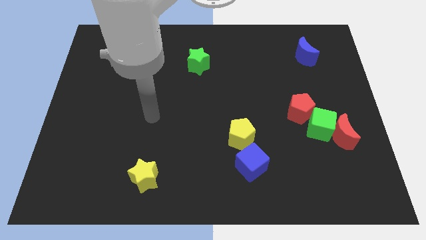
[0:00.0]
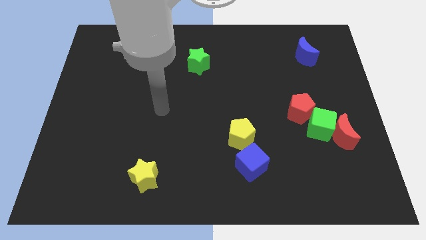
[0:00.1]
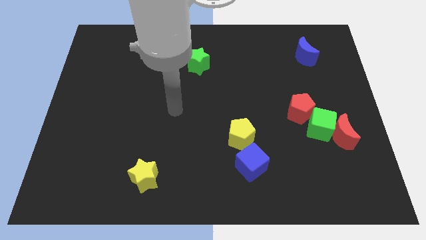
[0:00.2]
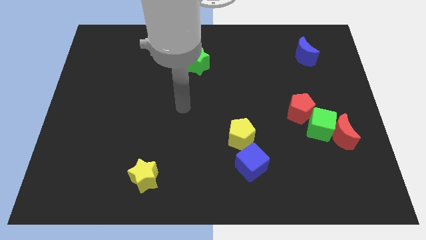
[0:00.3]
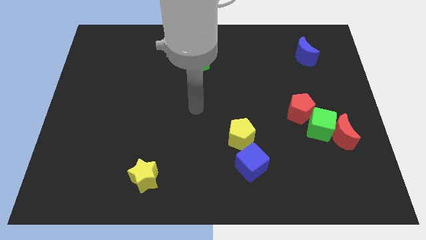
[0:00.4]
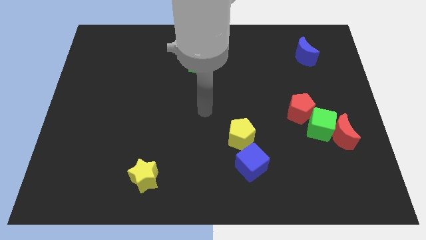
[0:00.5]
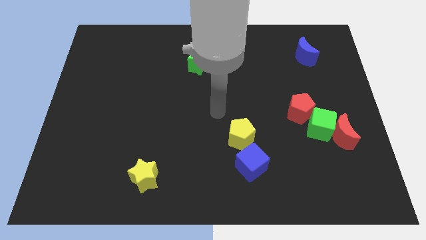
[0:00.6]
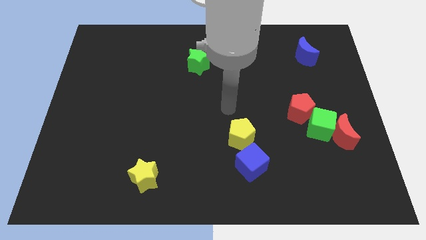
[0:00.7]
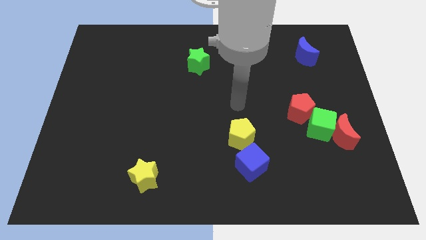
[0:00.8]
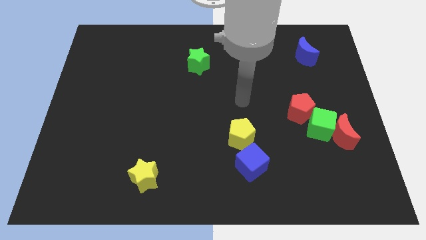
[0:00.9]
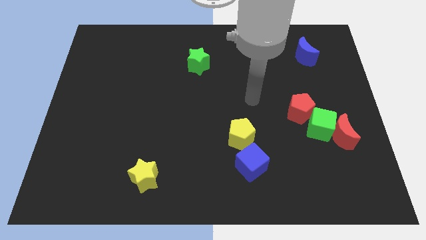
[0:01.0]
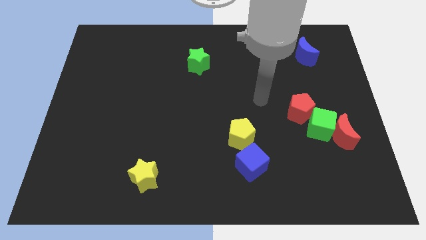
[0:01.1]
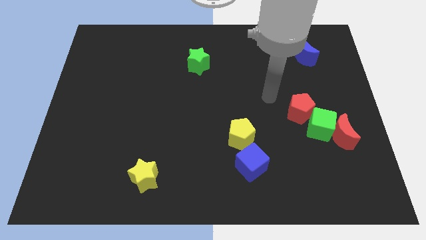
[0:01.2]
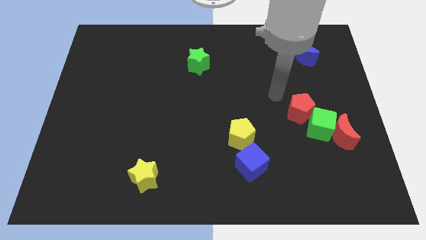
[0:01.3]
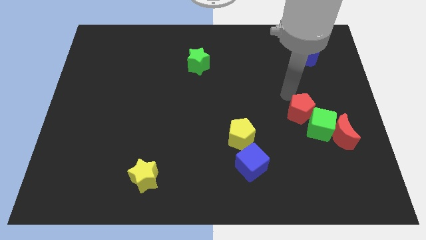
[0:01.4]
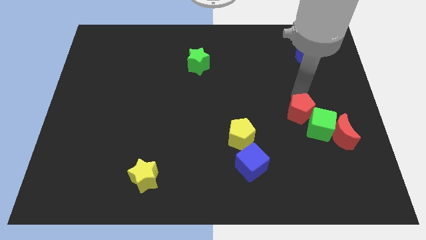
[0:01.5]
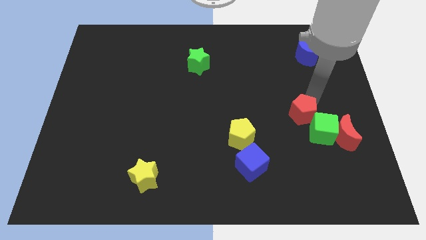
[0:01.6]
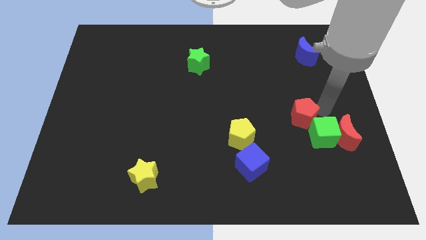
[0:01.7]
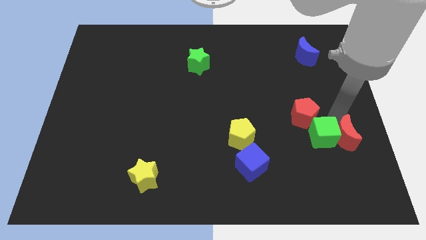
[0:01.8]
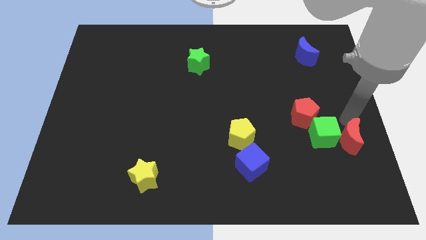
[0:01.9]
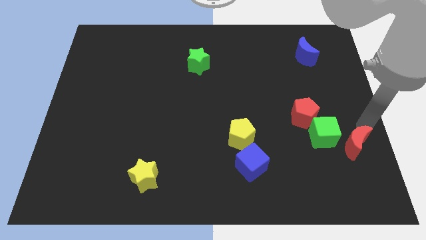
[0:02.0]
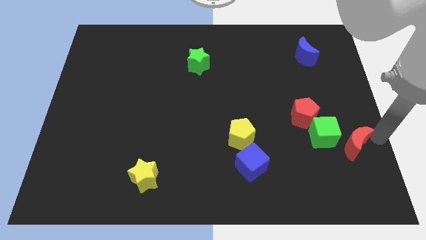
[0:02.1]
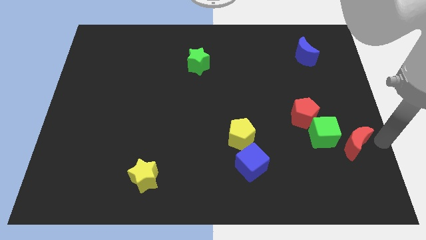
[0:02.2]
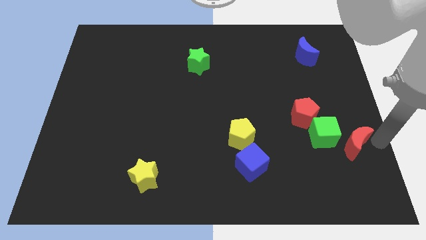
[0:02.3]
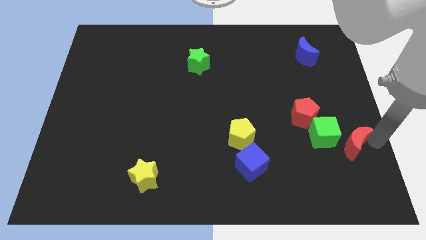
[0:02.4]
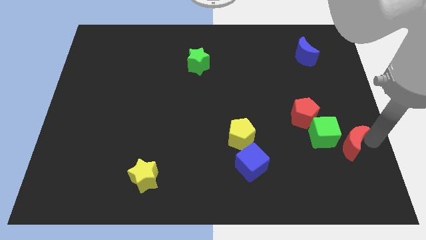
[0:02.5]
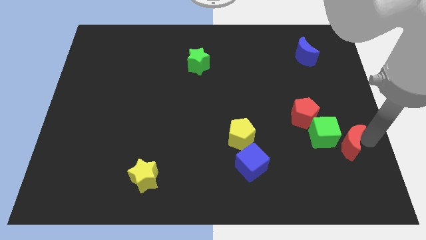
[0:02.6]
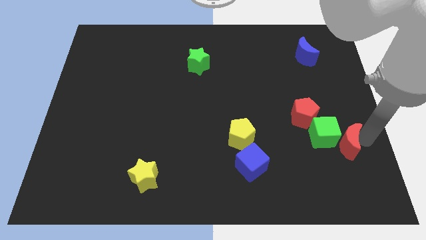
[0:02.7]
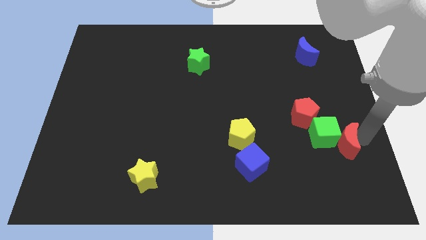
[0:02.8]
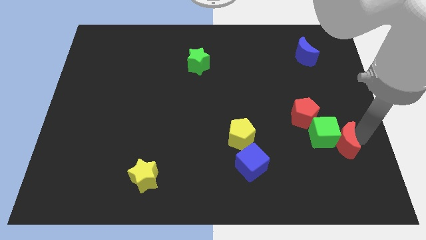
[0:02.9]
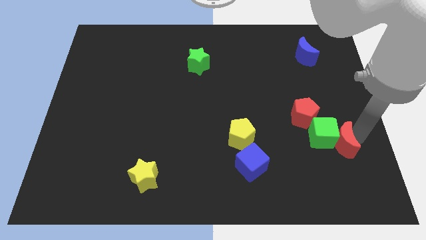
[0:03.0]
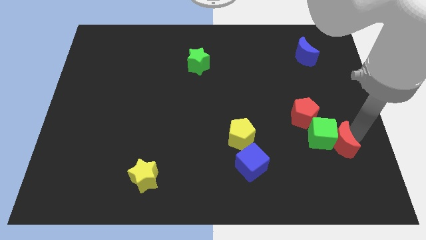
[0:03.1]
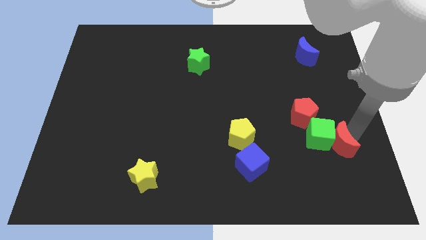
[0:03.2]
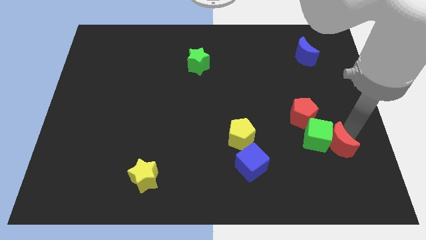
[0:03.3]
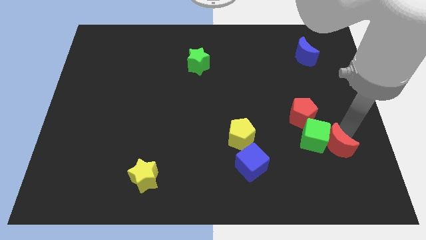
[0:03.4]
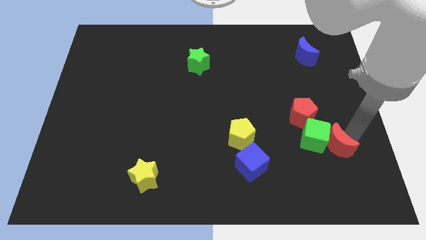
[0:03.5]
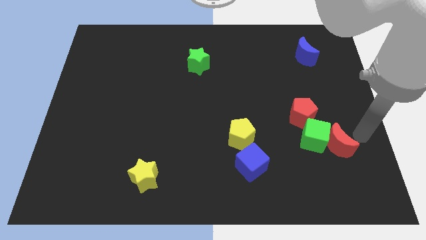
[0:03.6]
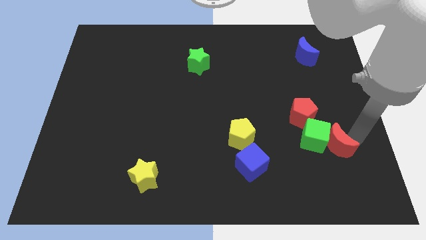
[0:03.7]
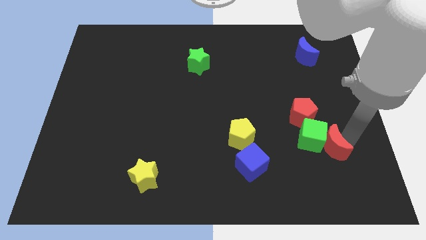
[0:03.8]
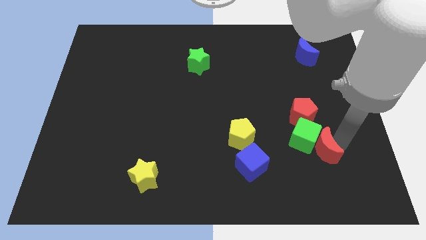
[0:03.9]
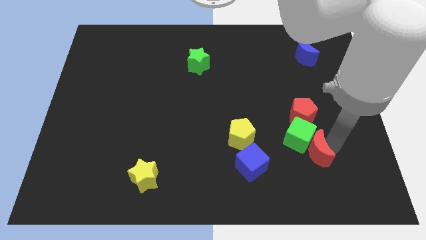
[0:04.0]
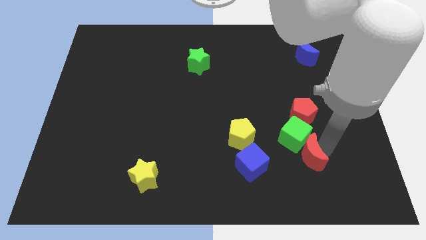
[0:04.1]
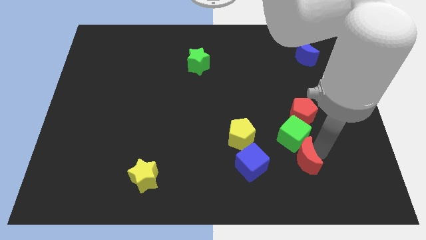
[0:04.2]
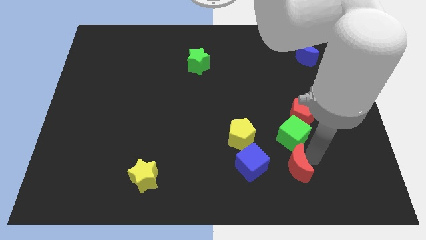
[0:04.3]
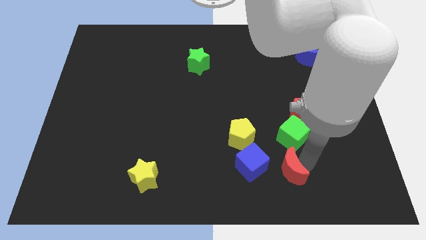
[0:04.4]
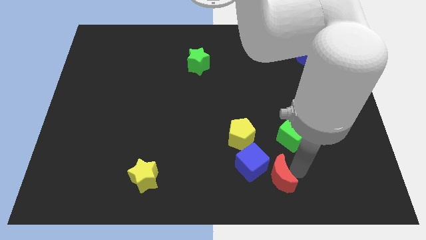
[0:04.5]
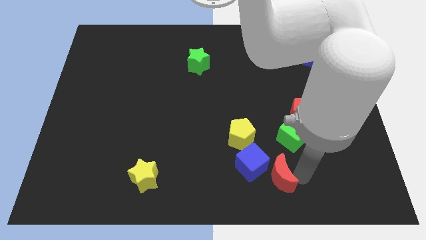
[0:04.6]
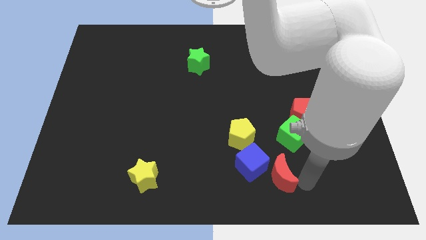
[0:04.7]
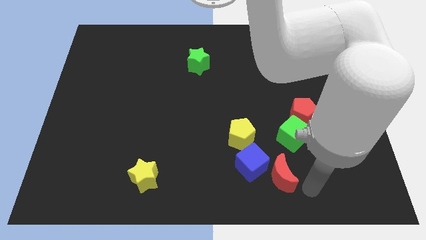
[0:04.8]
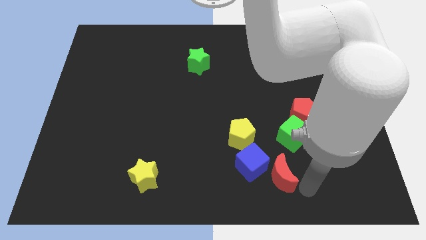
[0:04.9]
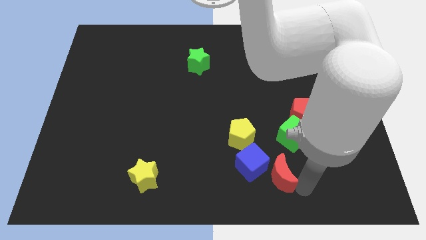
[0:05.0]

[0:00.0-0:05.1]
move the red moon close to the blue cube

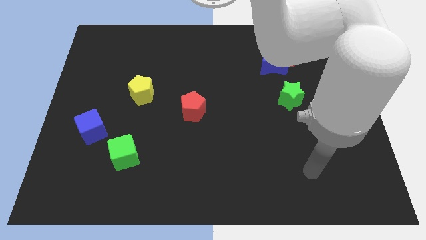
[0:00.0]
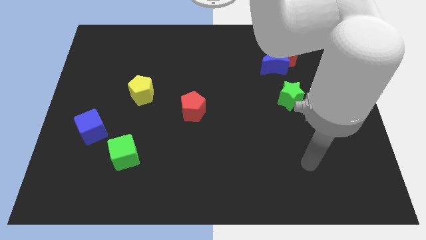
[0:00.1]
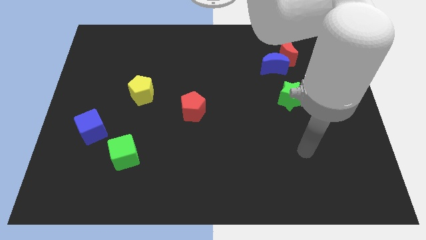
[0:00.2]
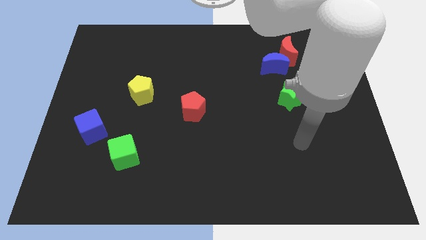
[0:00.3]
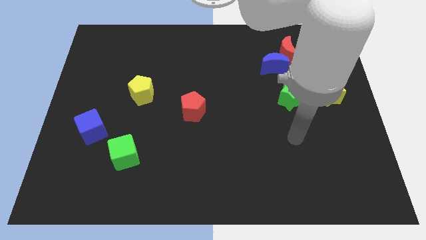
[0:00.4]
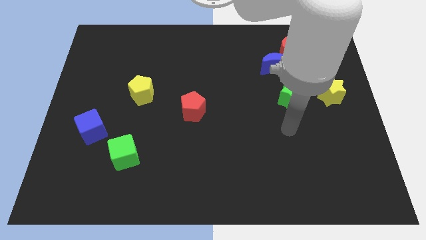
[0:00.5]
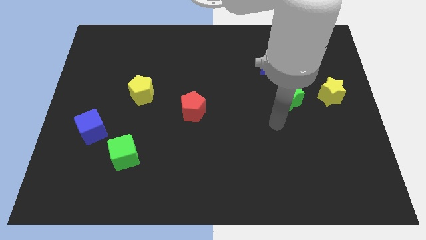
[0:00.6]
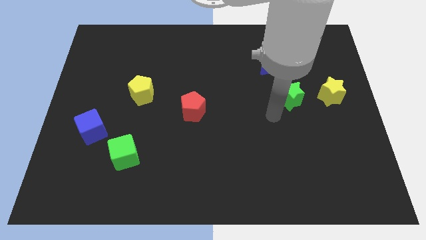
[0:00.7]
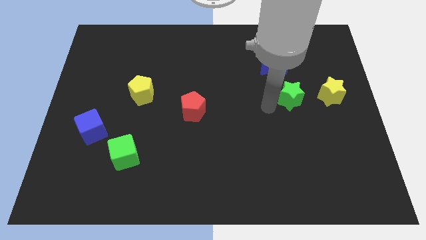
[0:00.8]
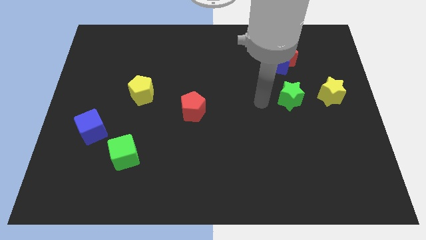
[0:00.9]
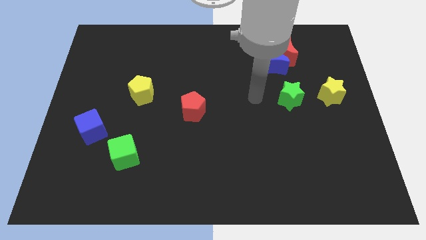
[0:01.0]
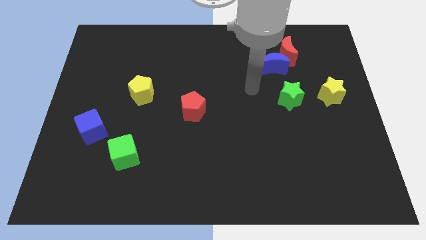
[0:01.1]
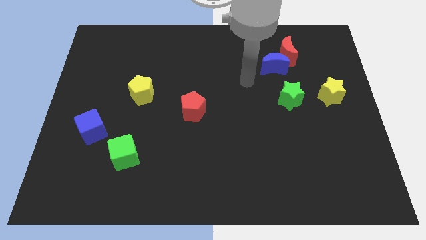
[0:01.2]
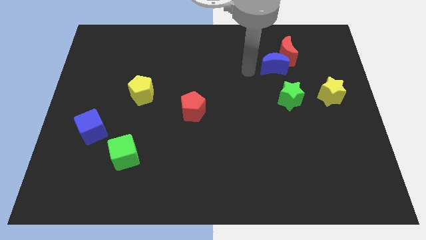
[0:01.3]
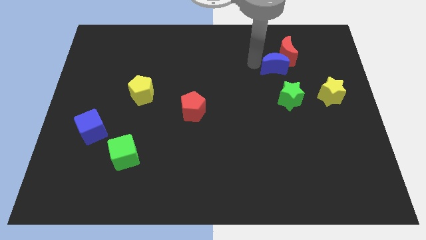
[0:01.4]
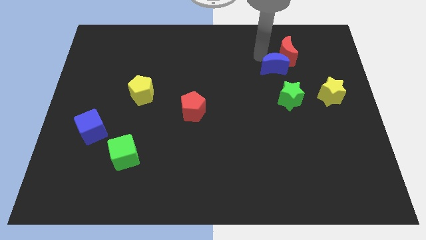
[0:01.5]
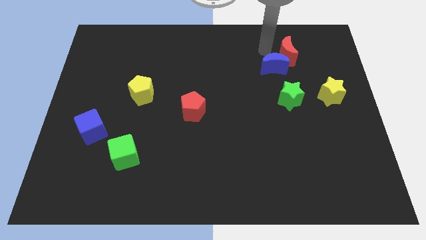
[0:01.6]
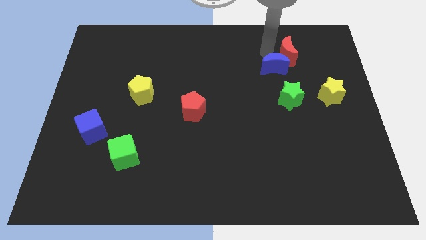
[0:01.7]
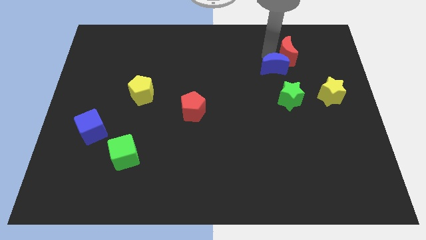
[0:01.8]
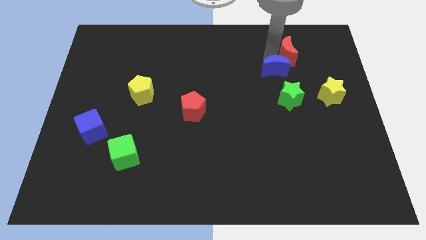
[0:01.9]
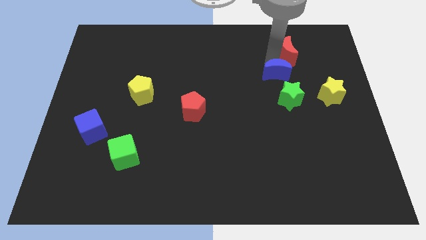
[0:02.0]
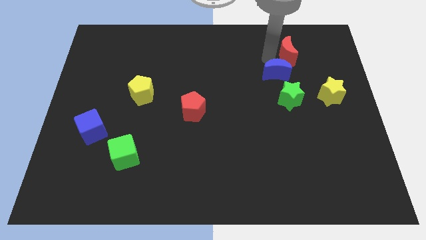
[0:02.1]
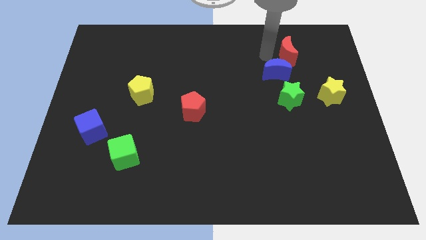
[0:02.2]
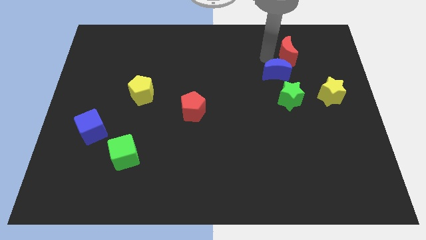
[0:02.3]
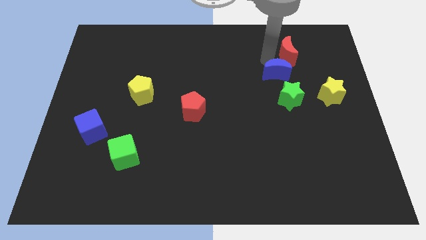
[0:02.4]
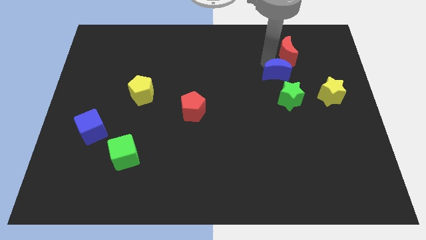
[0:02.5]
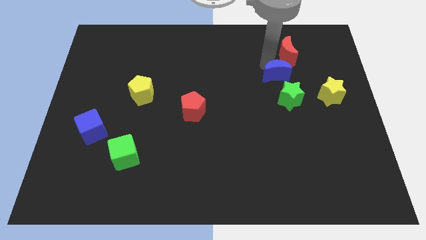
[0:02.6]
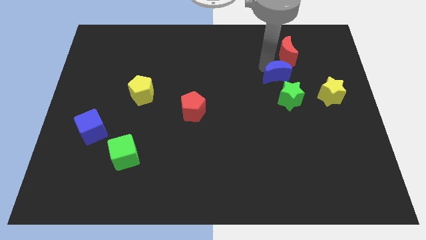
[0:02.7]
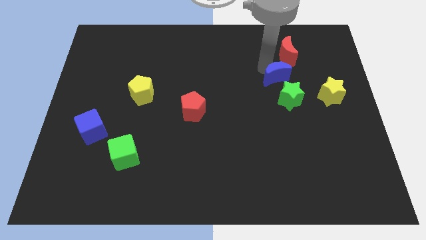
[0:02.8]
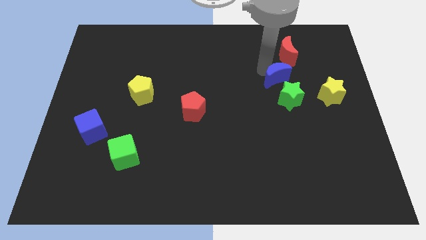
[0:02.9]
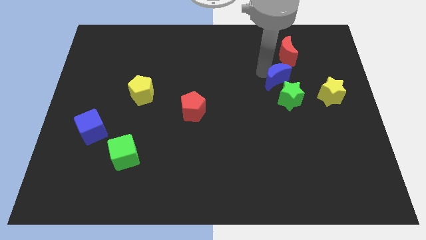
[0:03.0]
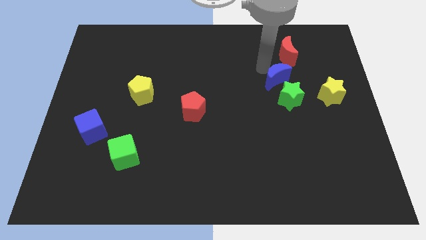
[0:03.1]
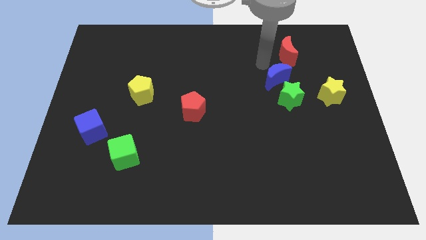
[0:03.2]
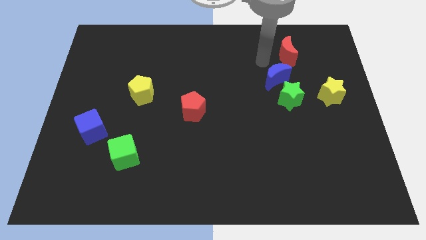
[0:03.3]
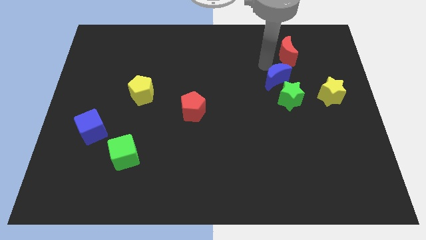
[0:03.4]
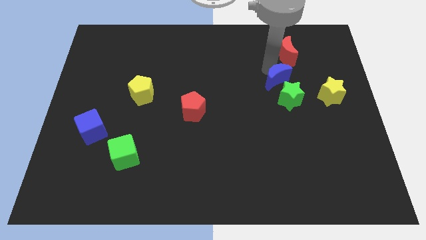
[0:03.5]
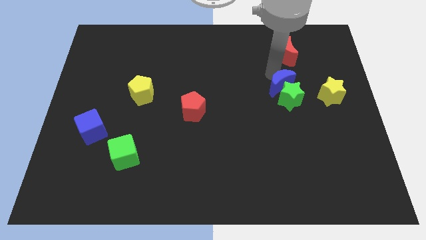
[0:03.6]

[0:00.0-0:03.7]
push the blue moon close to the green star
